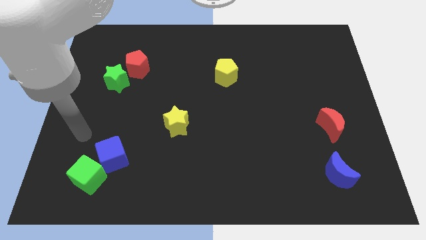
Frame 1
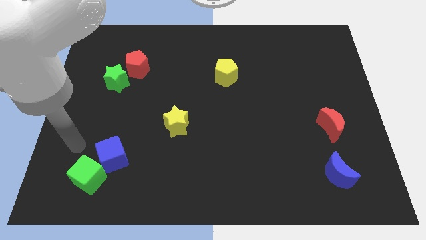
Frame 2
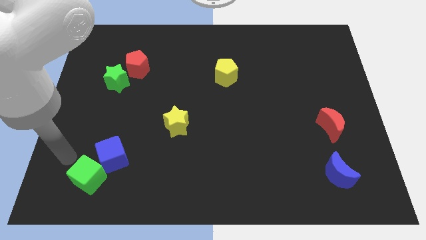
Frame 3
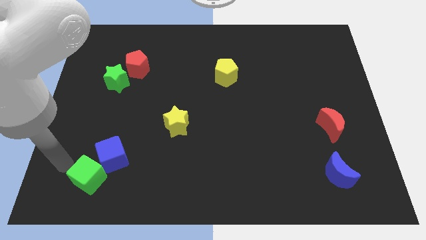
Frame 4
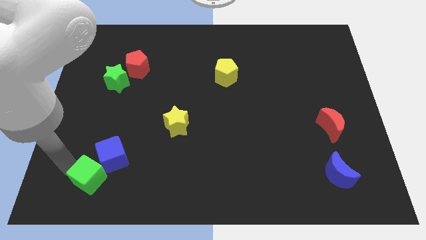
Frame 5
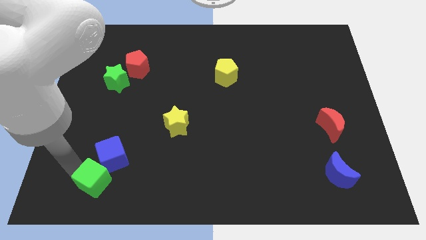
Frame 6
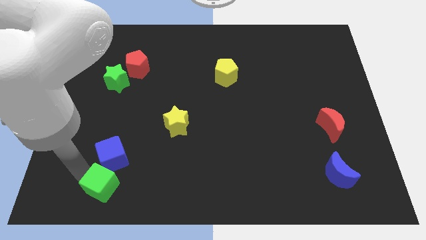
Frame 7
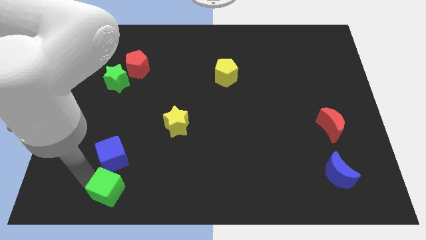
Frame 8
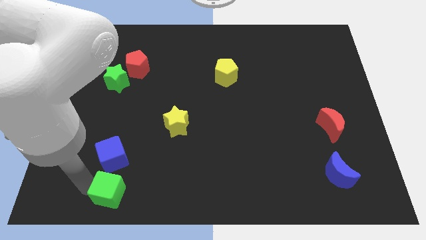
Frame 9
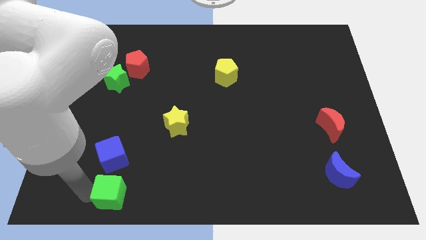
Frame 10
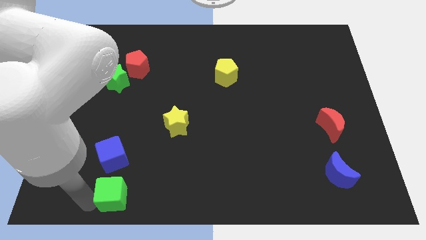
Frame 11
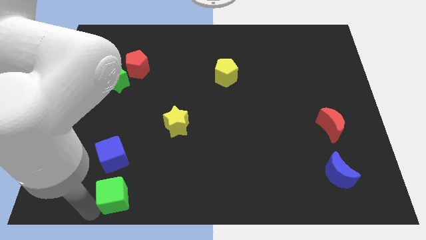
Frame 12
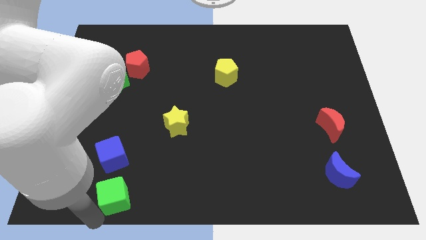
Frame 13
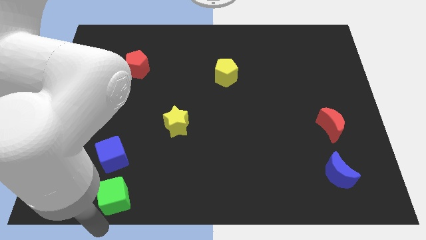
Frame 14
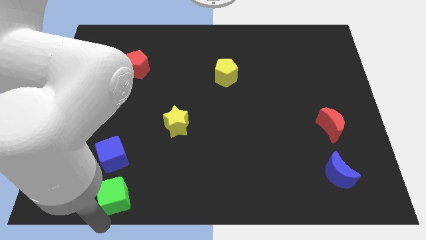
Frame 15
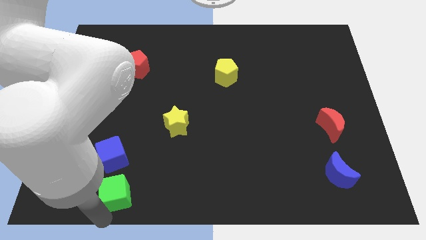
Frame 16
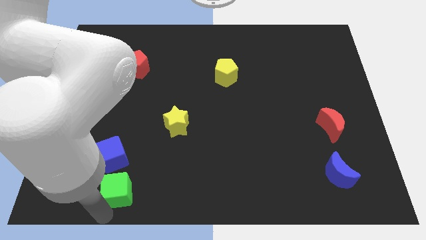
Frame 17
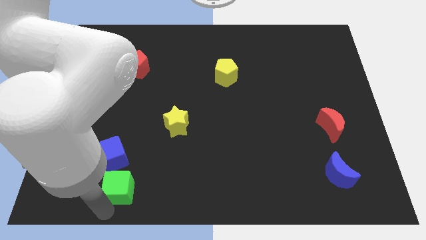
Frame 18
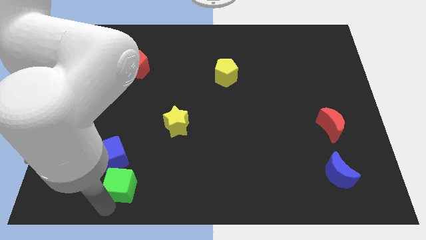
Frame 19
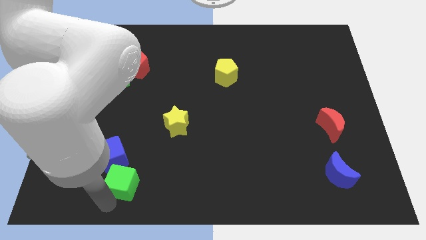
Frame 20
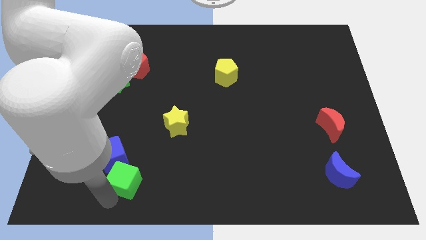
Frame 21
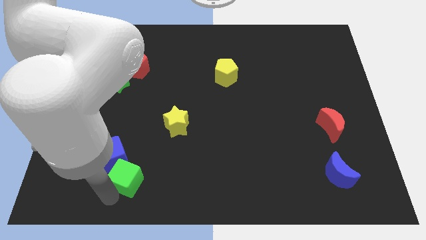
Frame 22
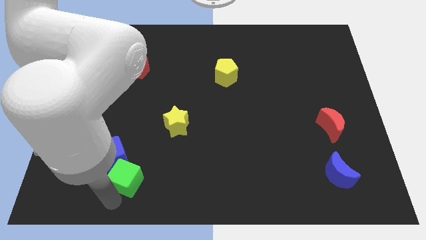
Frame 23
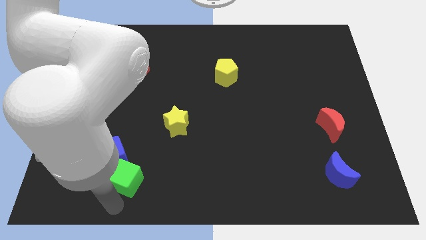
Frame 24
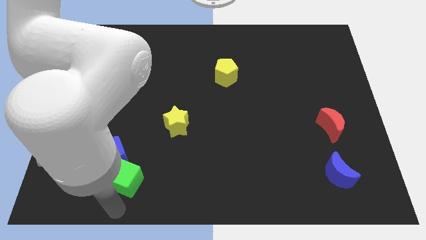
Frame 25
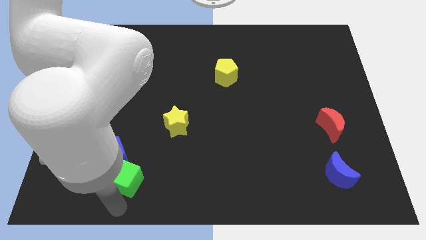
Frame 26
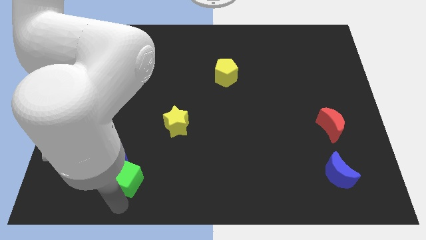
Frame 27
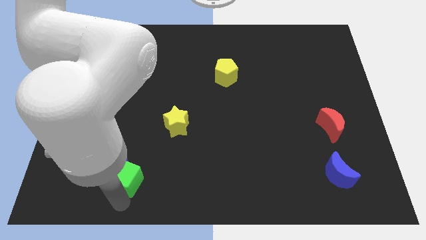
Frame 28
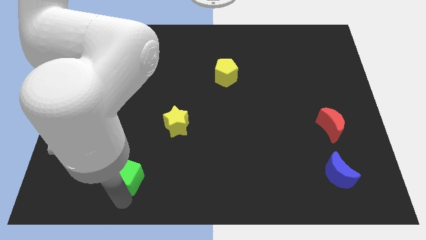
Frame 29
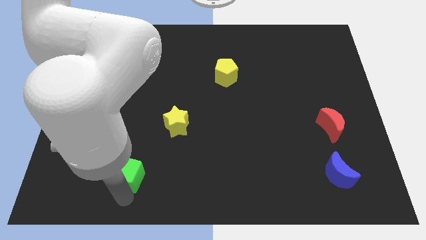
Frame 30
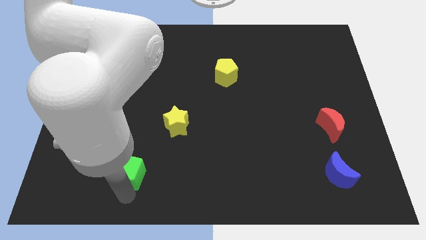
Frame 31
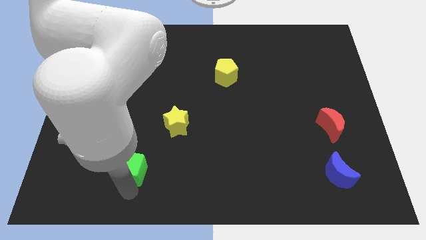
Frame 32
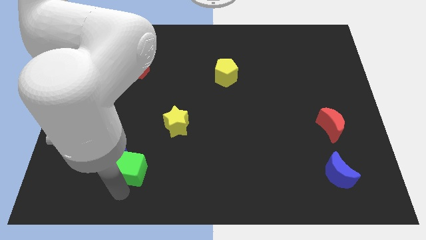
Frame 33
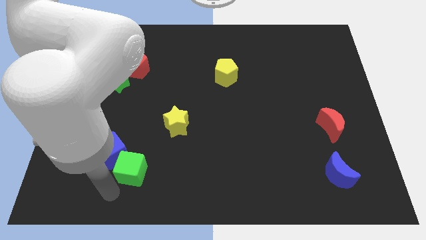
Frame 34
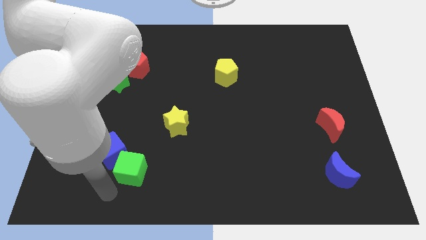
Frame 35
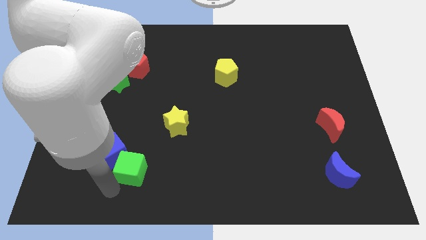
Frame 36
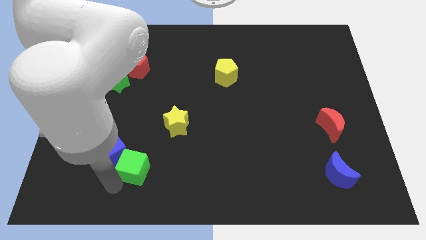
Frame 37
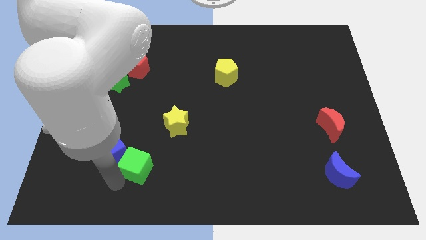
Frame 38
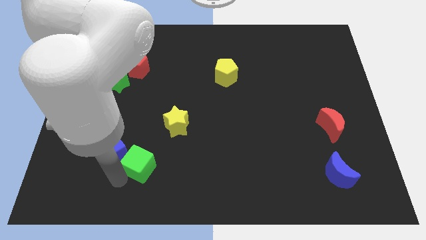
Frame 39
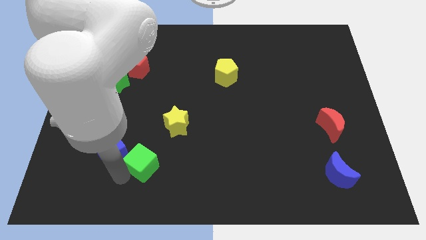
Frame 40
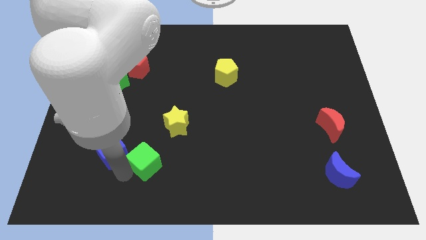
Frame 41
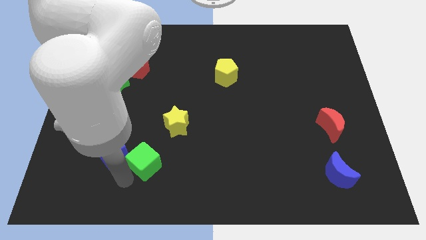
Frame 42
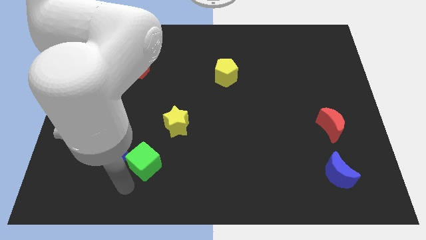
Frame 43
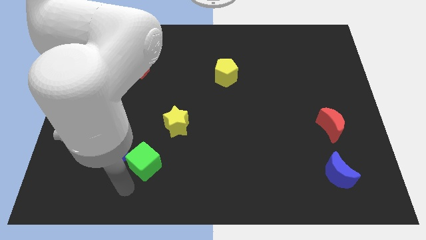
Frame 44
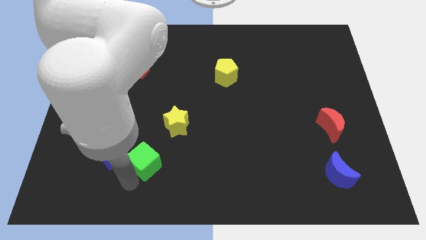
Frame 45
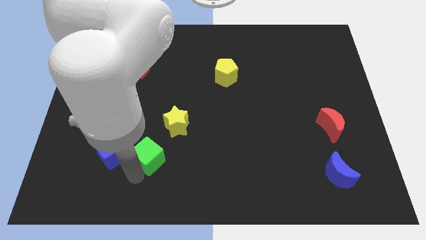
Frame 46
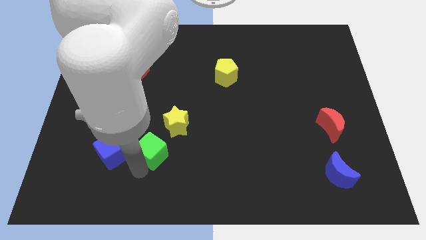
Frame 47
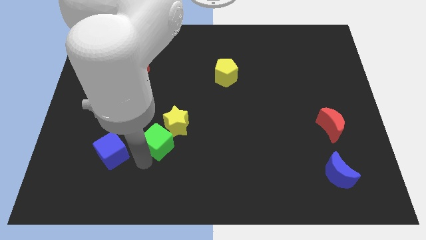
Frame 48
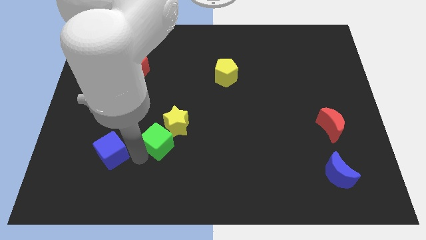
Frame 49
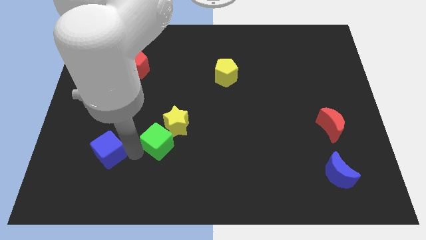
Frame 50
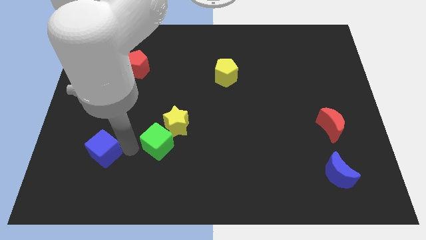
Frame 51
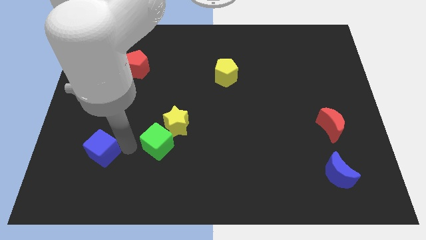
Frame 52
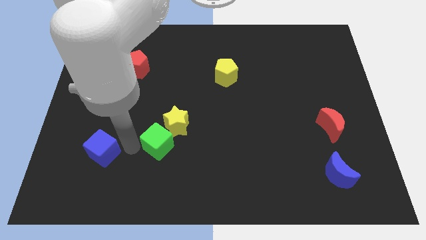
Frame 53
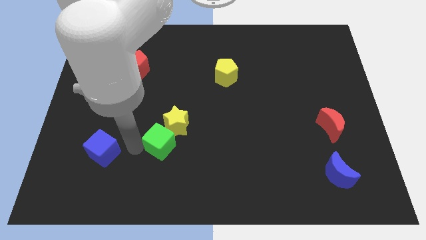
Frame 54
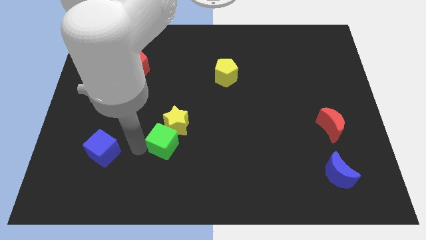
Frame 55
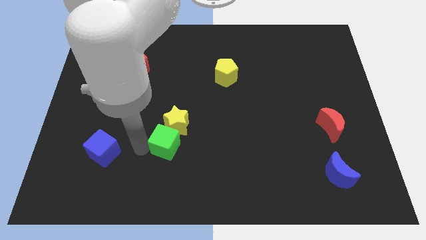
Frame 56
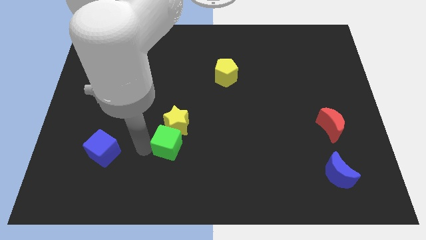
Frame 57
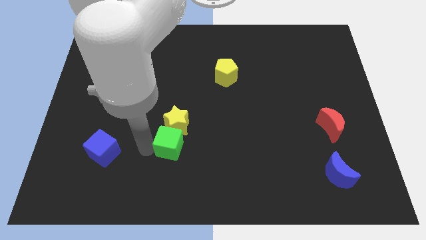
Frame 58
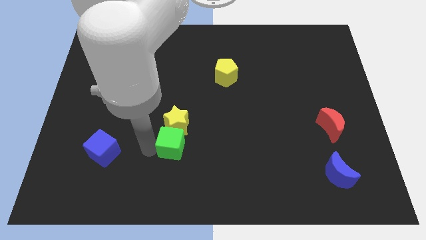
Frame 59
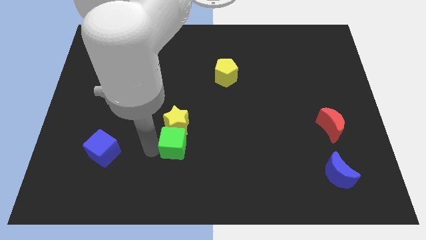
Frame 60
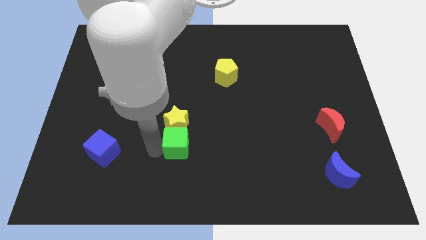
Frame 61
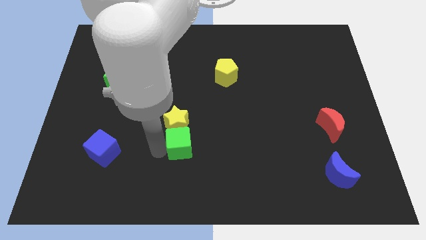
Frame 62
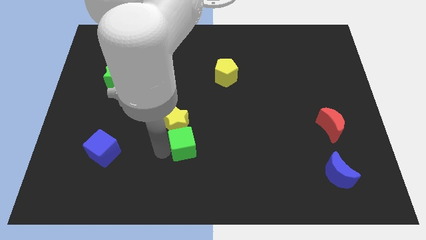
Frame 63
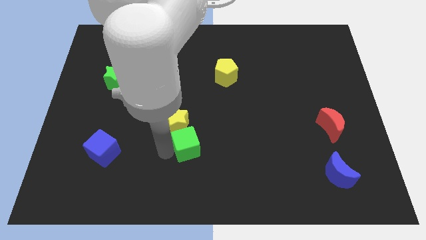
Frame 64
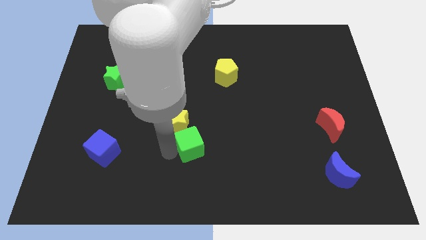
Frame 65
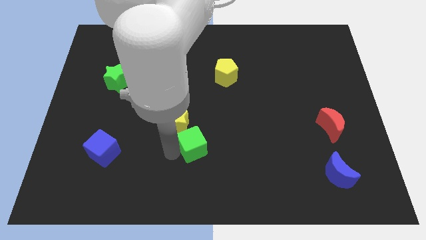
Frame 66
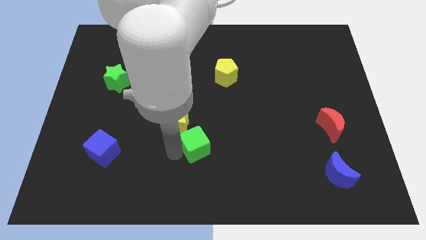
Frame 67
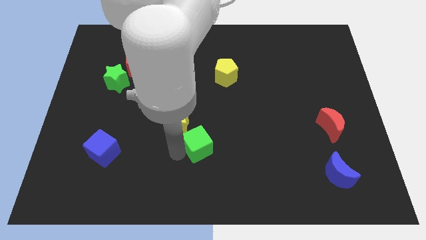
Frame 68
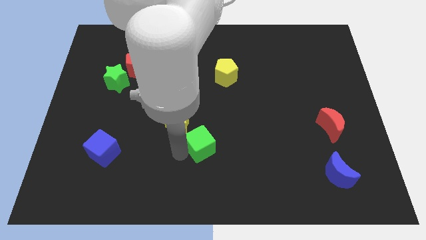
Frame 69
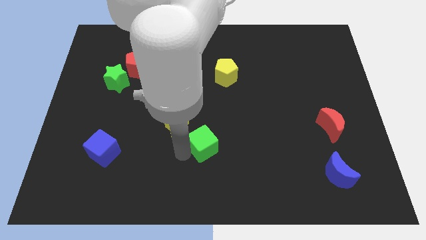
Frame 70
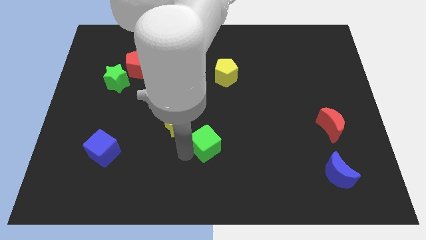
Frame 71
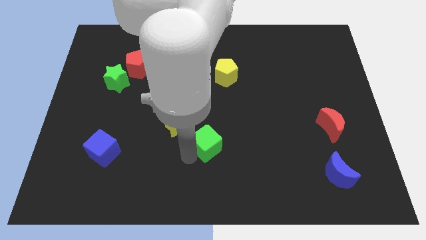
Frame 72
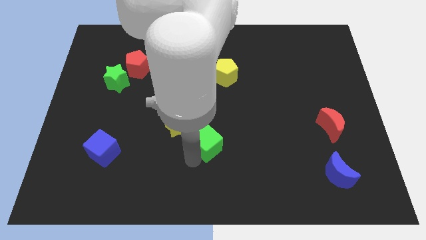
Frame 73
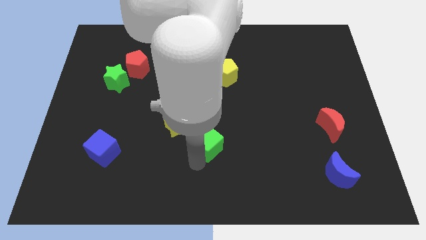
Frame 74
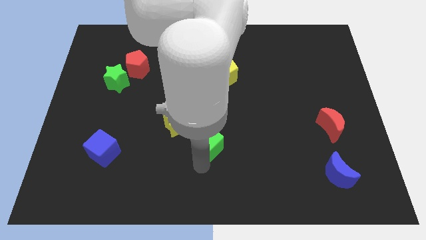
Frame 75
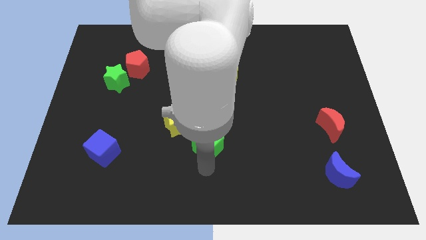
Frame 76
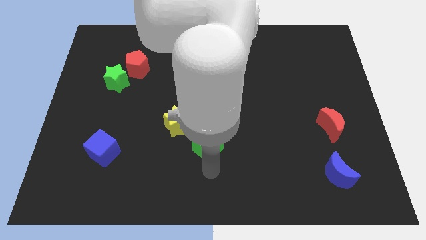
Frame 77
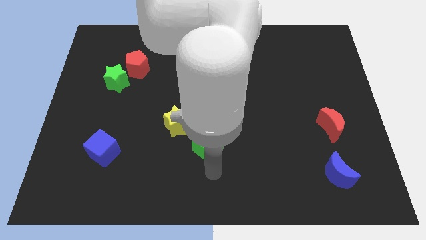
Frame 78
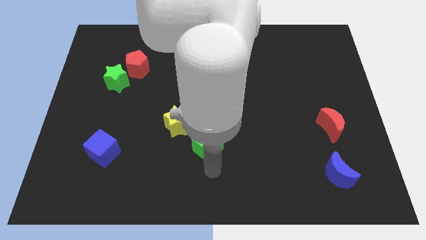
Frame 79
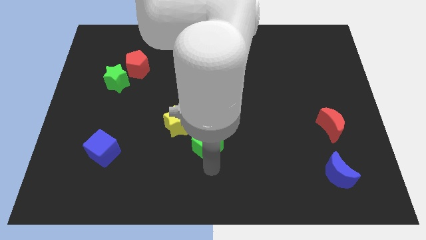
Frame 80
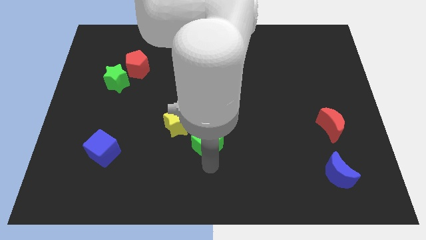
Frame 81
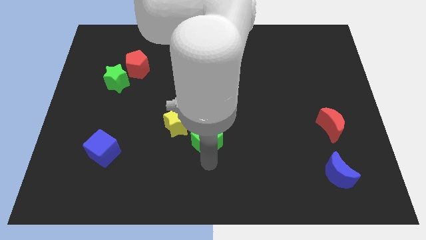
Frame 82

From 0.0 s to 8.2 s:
move the green cube right of the yellow star
